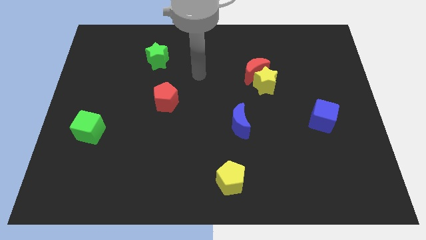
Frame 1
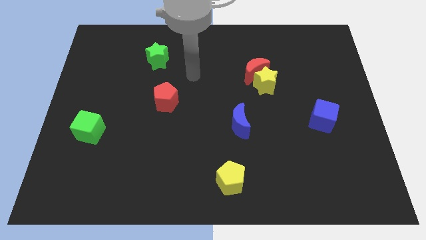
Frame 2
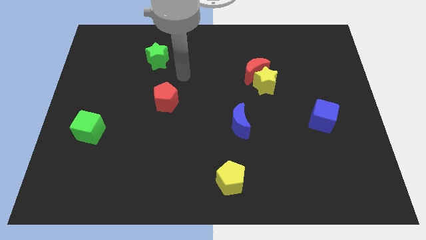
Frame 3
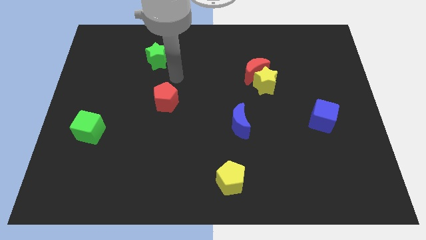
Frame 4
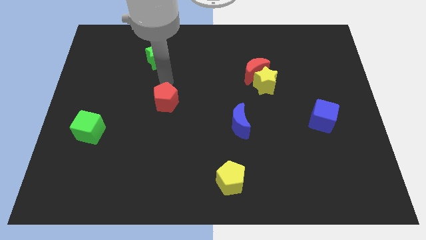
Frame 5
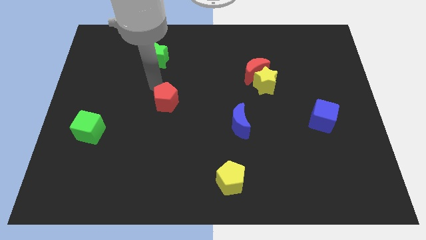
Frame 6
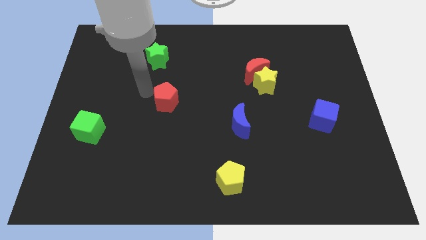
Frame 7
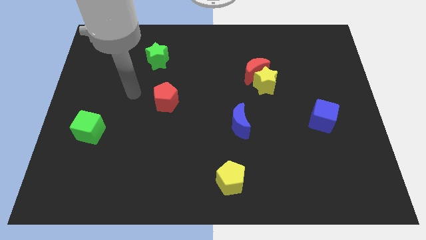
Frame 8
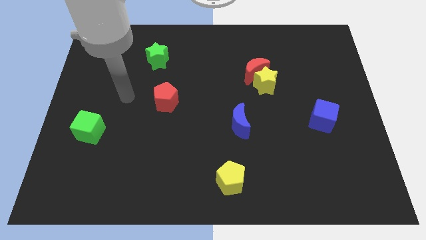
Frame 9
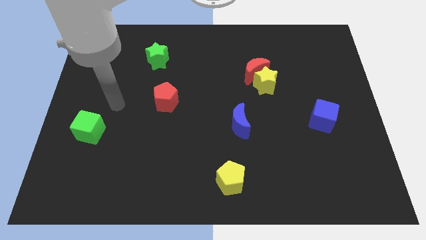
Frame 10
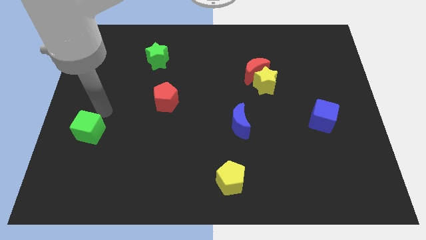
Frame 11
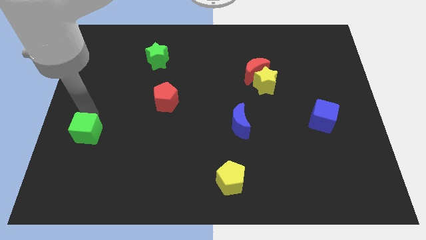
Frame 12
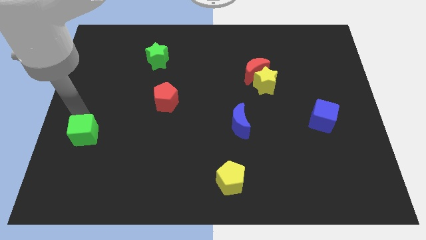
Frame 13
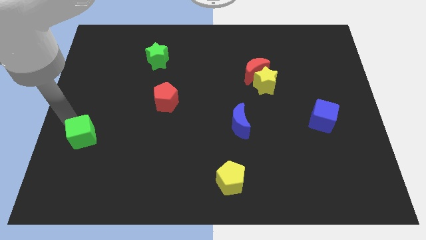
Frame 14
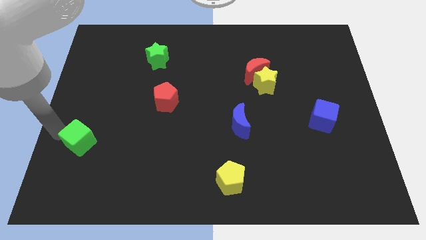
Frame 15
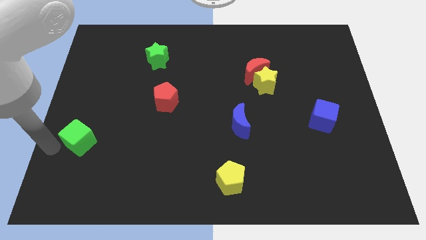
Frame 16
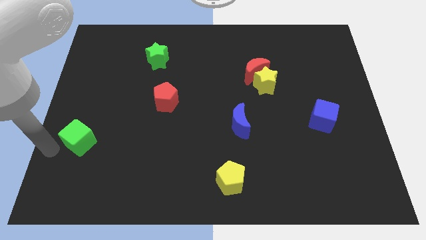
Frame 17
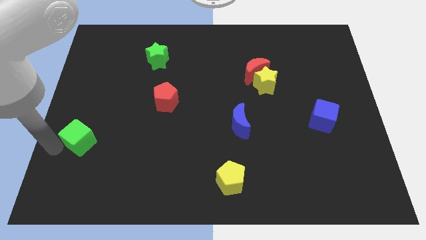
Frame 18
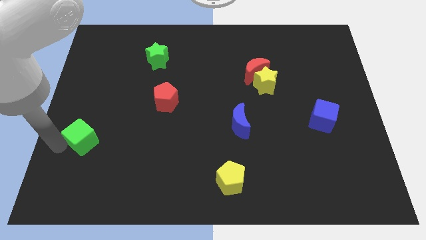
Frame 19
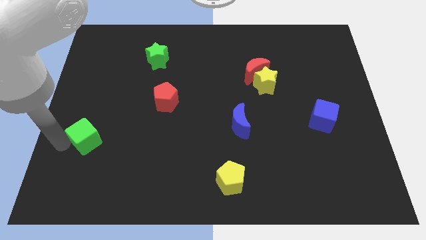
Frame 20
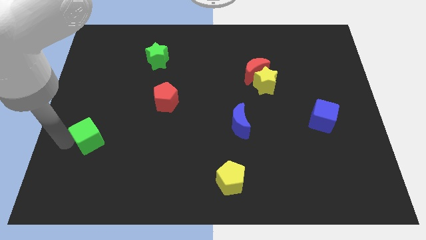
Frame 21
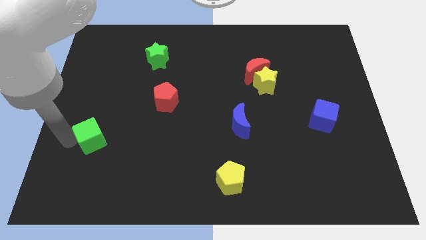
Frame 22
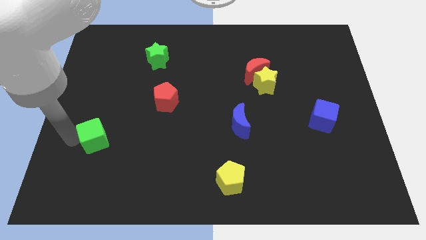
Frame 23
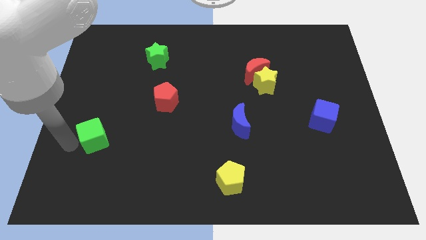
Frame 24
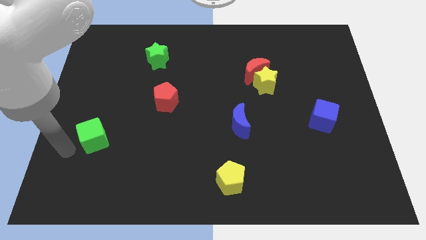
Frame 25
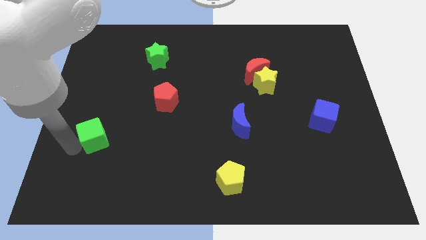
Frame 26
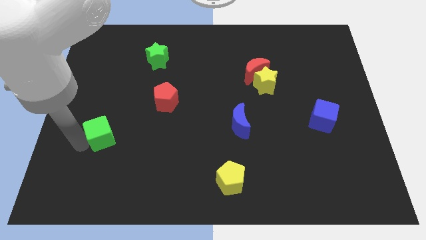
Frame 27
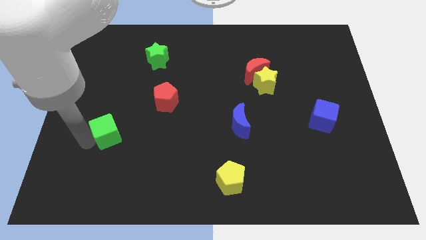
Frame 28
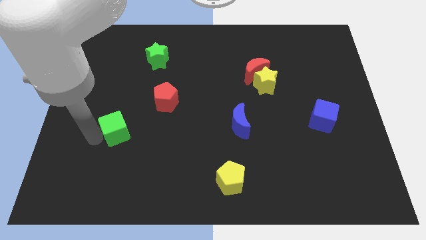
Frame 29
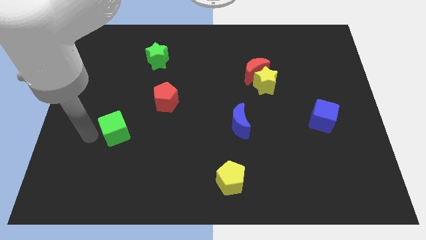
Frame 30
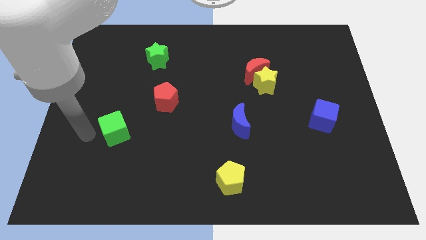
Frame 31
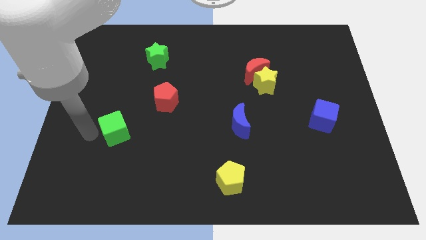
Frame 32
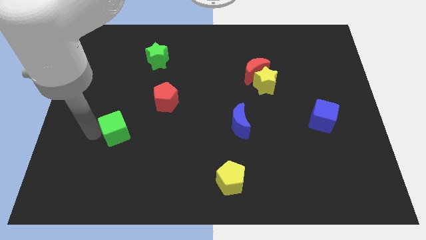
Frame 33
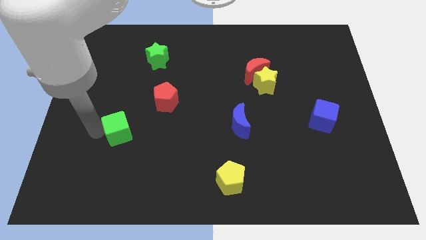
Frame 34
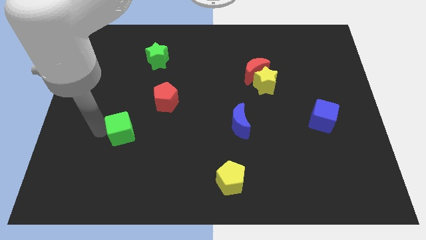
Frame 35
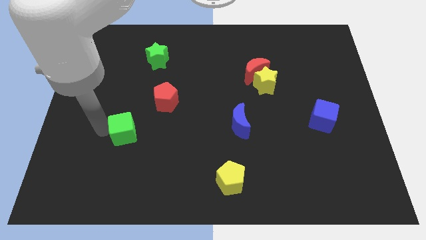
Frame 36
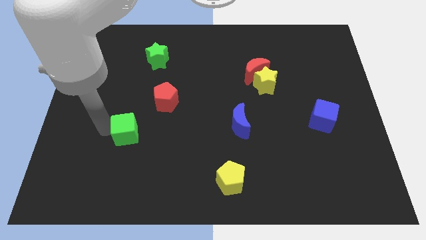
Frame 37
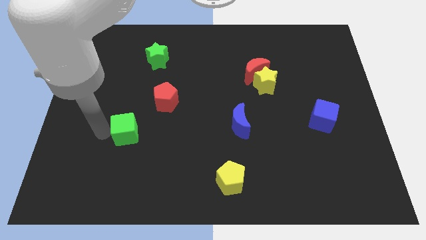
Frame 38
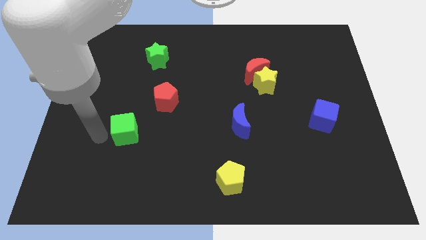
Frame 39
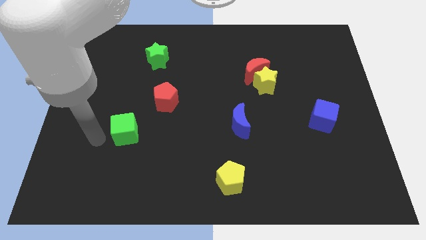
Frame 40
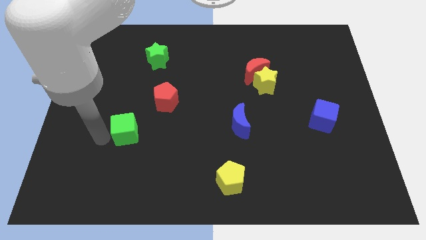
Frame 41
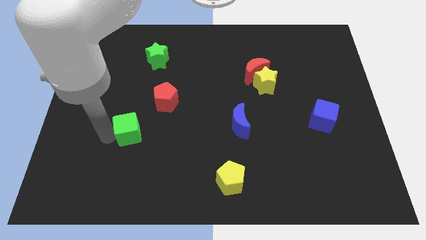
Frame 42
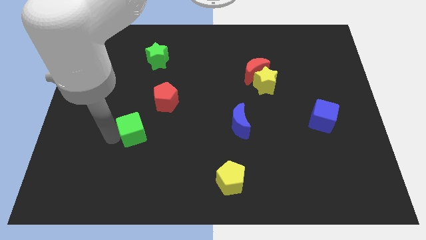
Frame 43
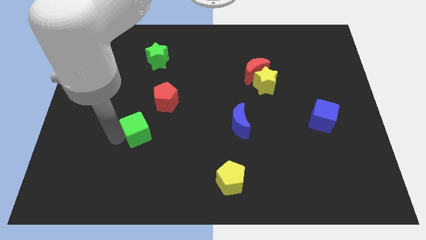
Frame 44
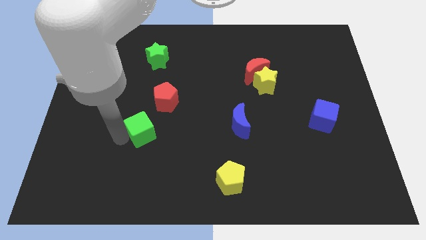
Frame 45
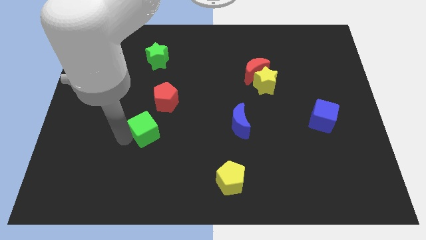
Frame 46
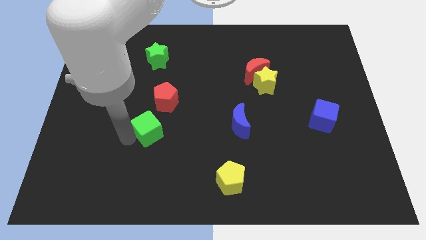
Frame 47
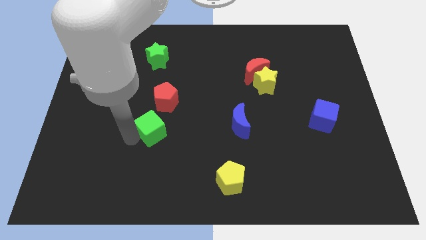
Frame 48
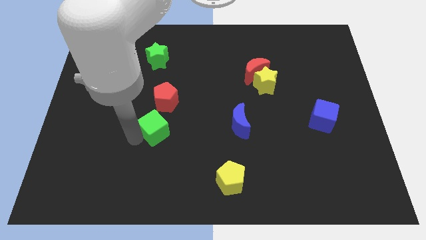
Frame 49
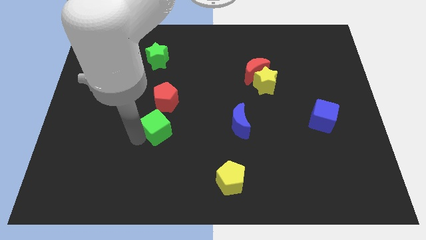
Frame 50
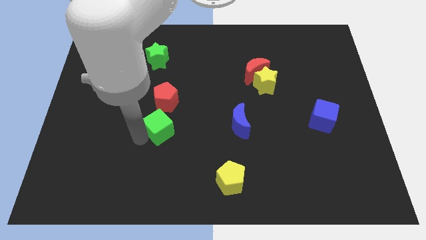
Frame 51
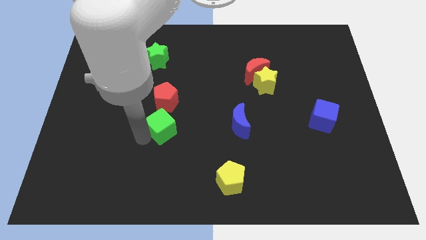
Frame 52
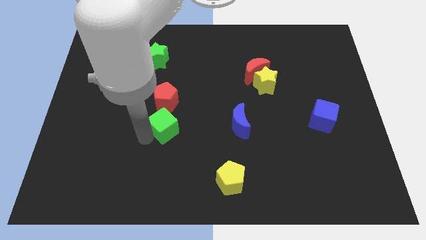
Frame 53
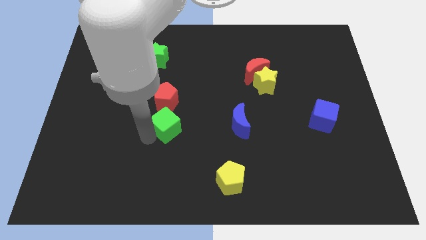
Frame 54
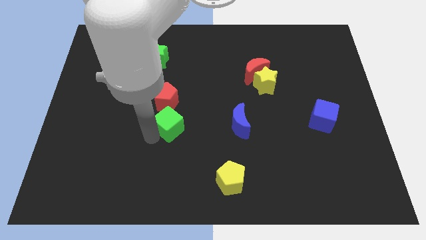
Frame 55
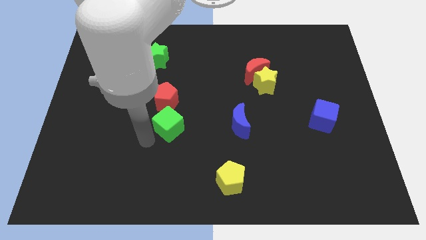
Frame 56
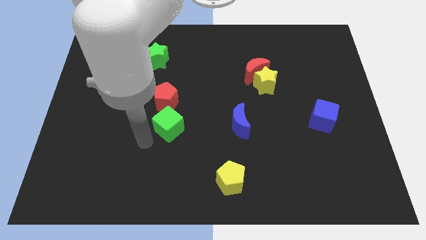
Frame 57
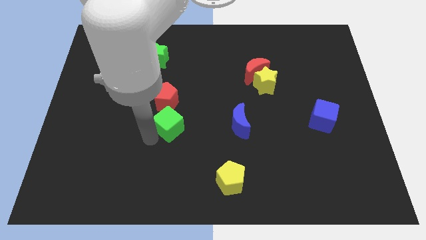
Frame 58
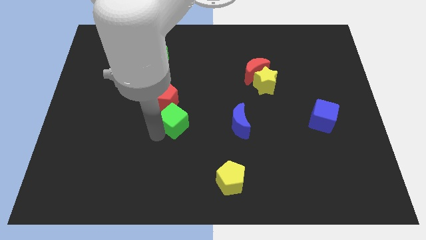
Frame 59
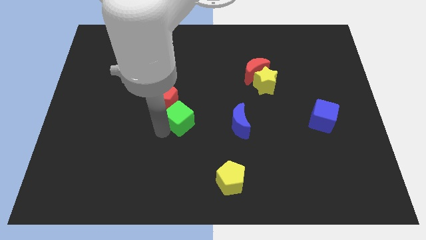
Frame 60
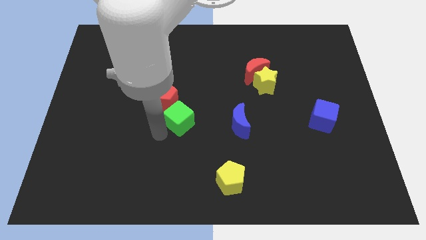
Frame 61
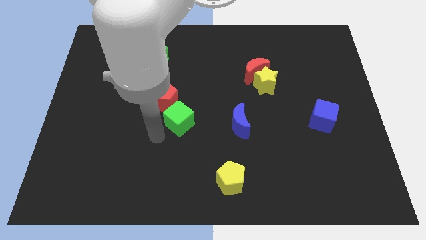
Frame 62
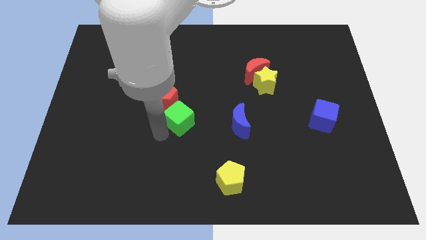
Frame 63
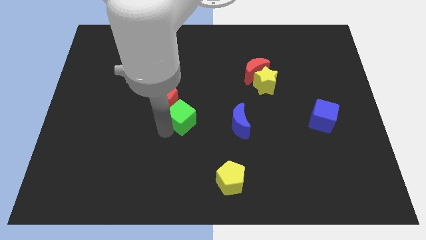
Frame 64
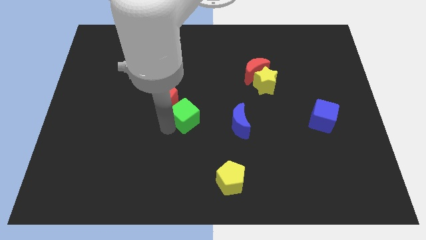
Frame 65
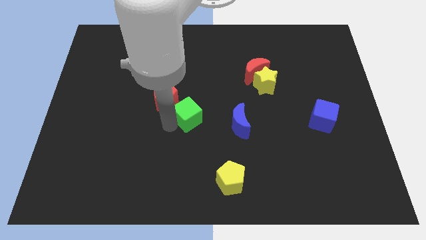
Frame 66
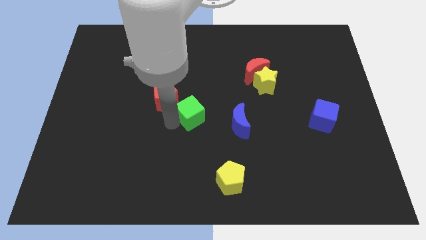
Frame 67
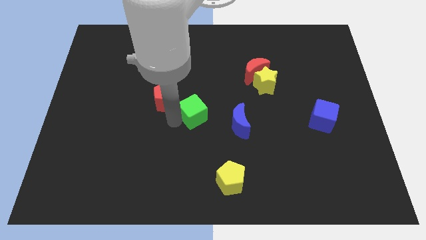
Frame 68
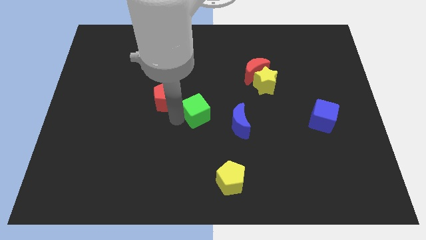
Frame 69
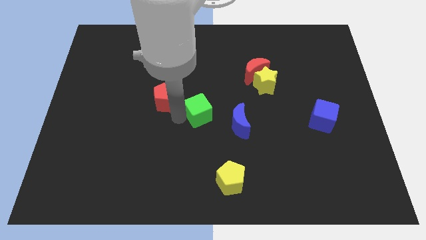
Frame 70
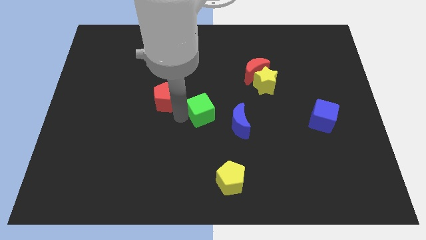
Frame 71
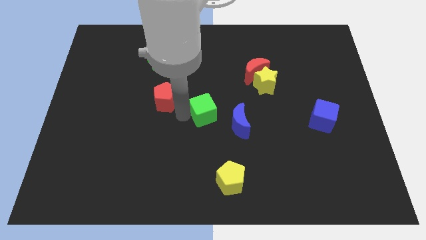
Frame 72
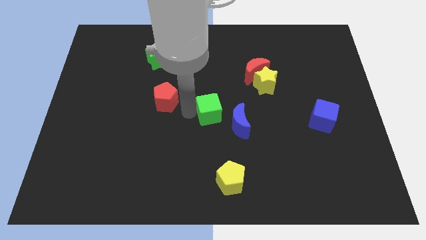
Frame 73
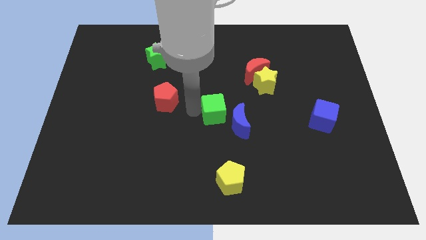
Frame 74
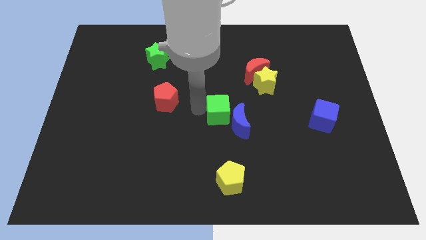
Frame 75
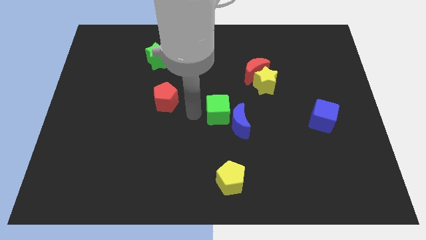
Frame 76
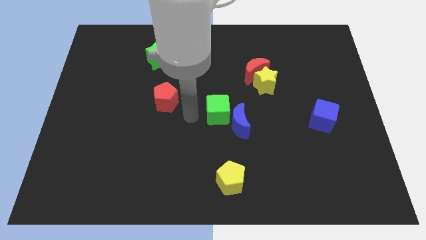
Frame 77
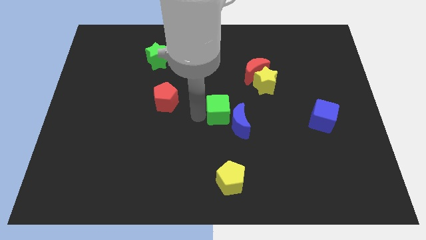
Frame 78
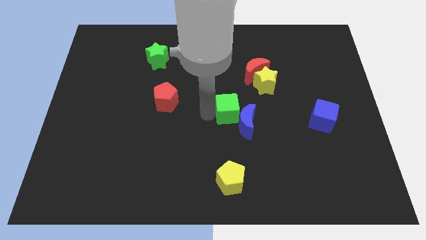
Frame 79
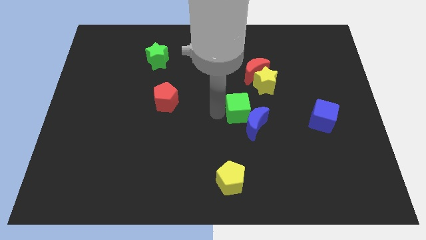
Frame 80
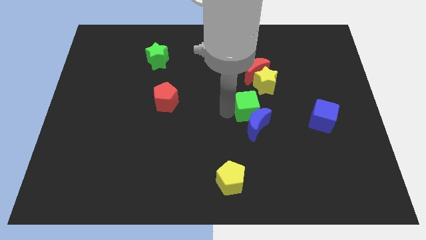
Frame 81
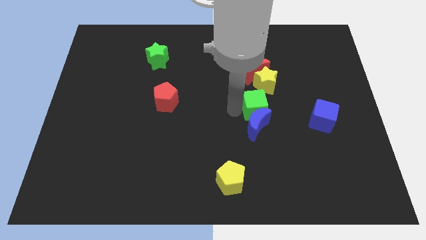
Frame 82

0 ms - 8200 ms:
put the green cube diagonally up and to the right of the blue moon
